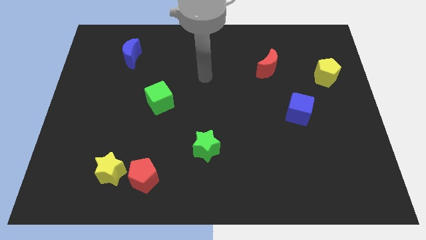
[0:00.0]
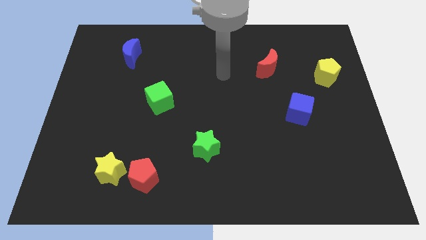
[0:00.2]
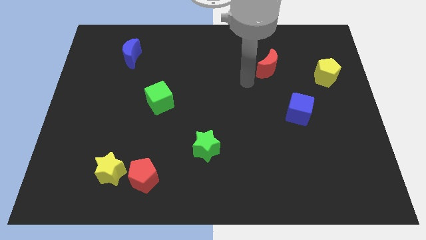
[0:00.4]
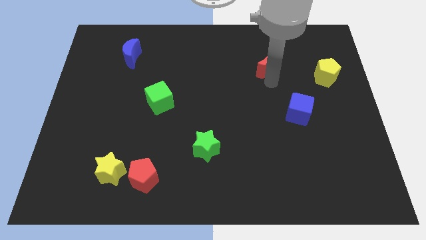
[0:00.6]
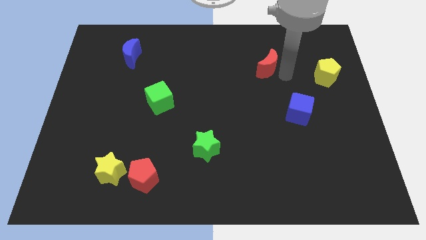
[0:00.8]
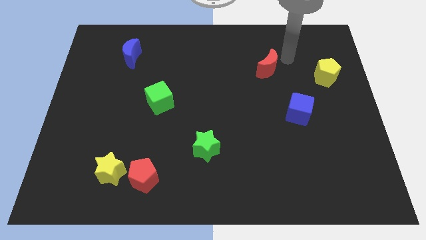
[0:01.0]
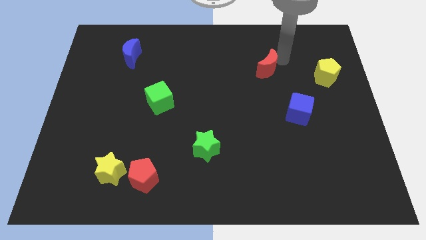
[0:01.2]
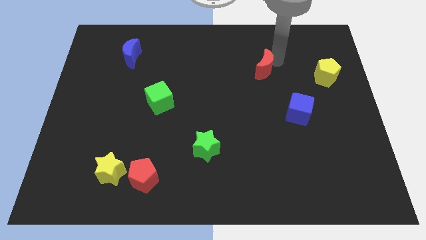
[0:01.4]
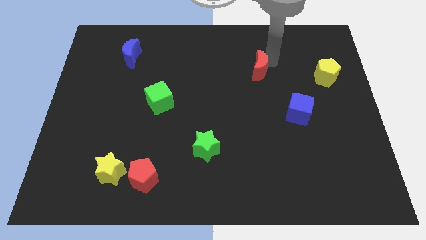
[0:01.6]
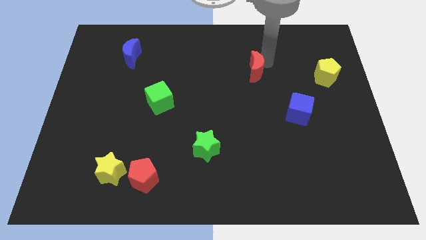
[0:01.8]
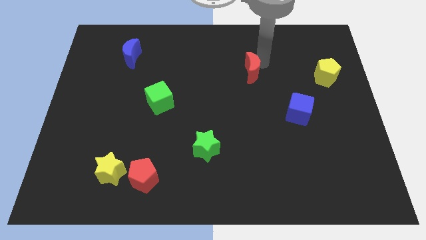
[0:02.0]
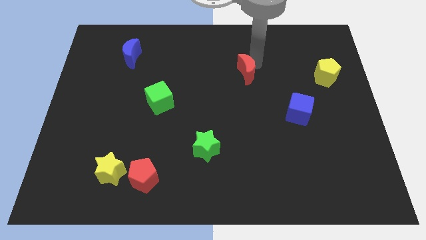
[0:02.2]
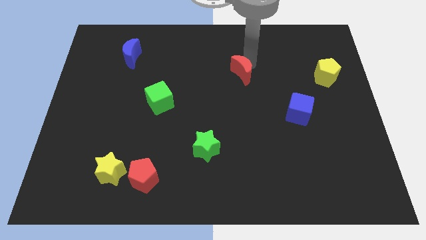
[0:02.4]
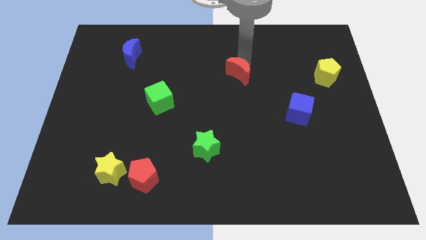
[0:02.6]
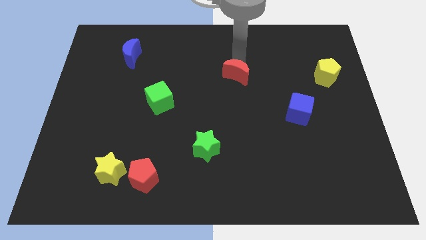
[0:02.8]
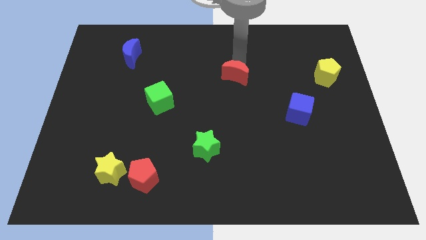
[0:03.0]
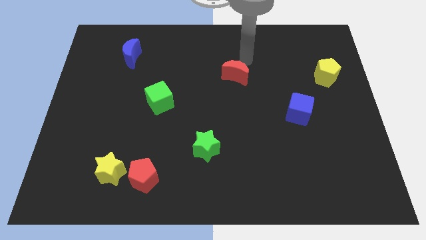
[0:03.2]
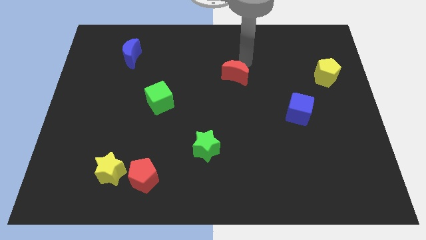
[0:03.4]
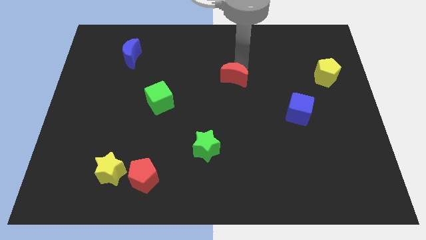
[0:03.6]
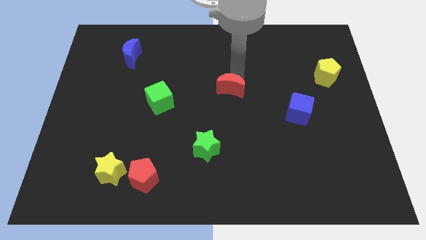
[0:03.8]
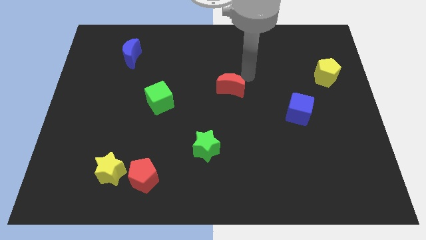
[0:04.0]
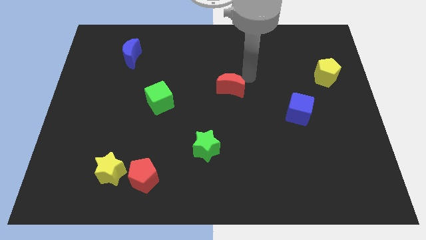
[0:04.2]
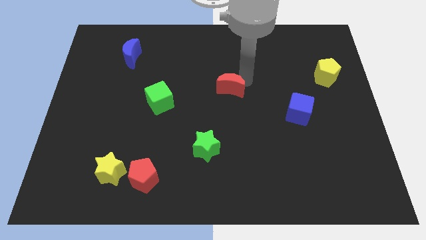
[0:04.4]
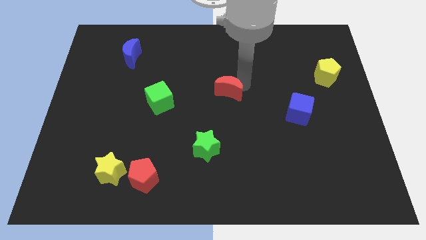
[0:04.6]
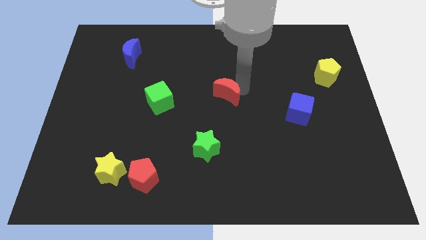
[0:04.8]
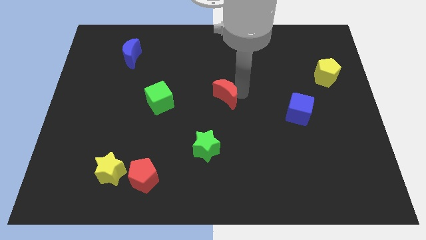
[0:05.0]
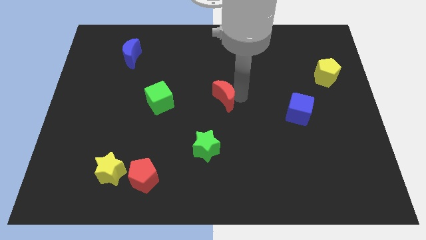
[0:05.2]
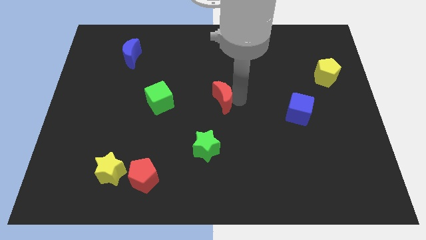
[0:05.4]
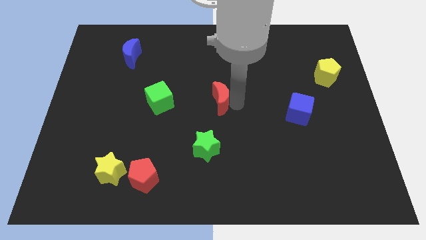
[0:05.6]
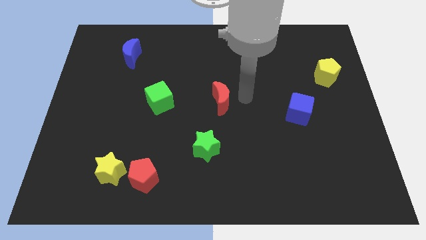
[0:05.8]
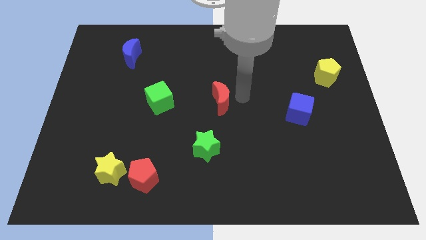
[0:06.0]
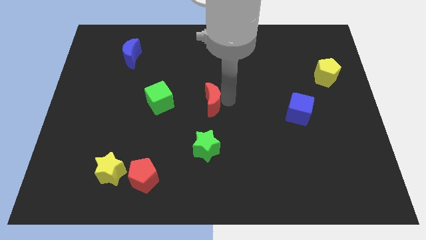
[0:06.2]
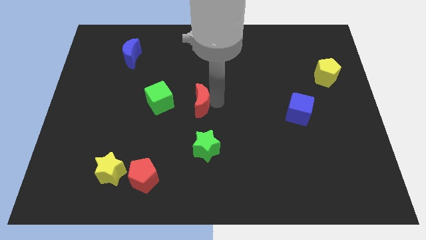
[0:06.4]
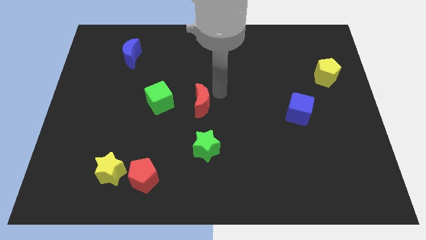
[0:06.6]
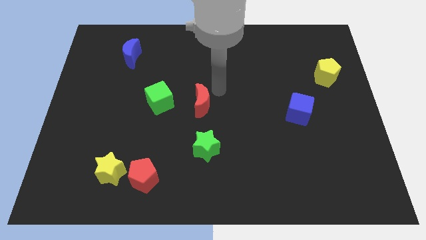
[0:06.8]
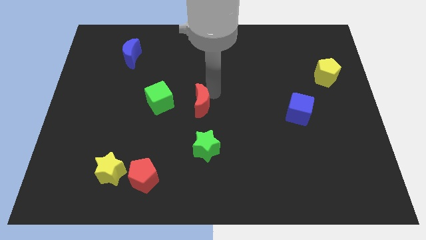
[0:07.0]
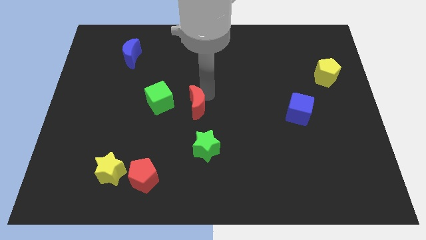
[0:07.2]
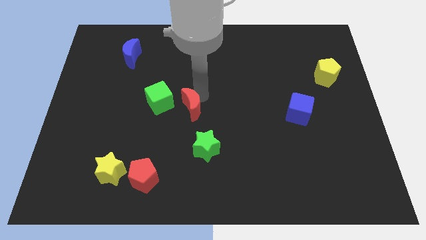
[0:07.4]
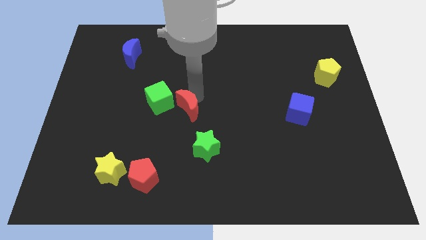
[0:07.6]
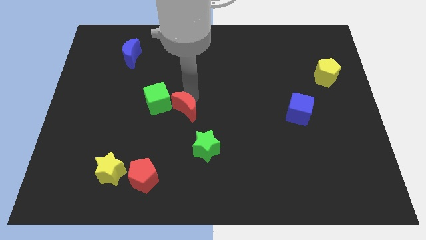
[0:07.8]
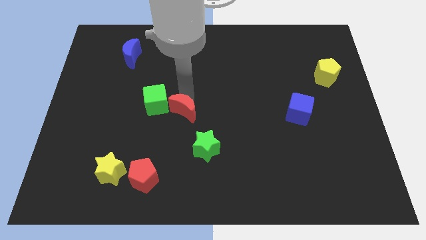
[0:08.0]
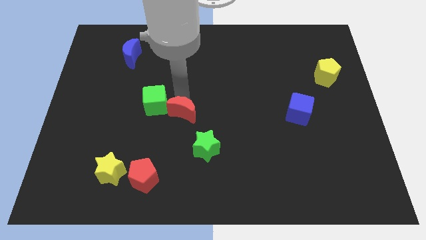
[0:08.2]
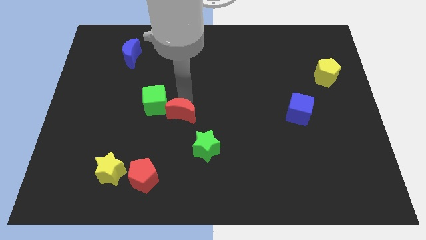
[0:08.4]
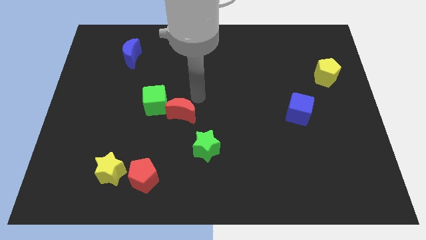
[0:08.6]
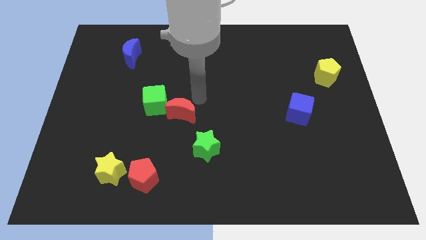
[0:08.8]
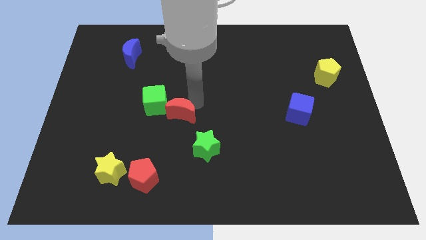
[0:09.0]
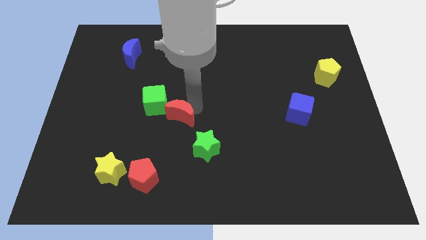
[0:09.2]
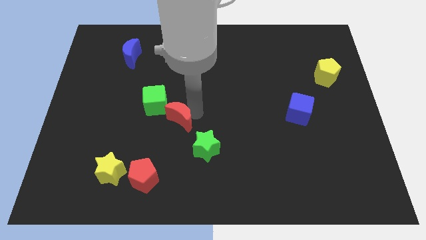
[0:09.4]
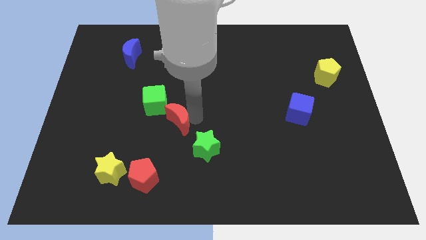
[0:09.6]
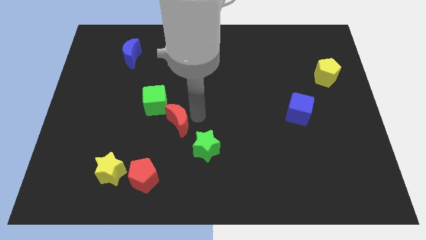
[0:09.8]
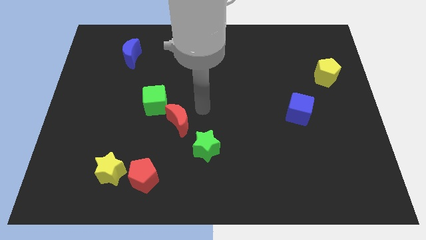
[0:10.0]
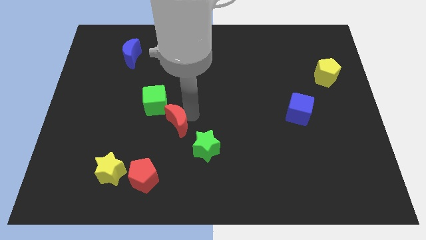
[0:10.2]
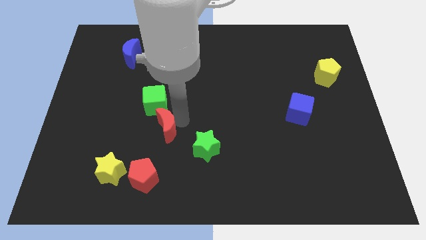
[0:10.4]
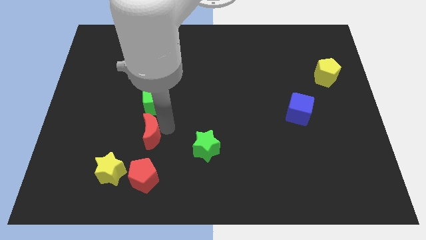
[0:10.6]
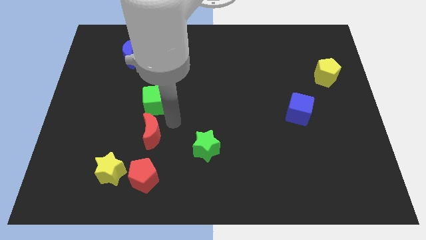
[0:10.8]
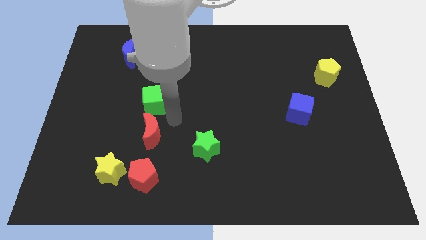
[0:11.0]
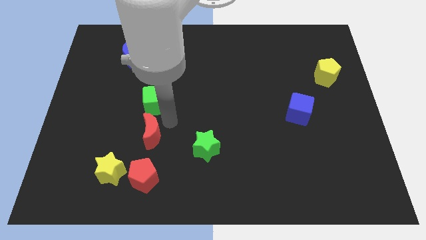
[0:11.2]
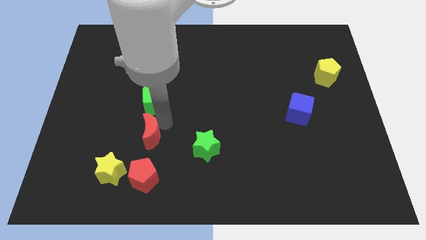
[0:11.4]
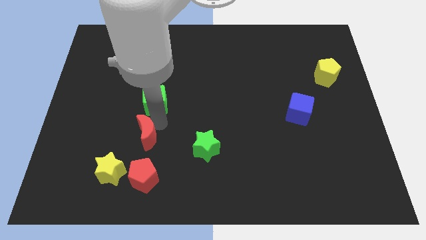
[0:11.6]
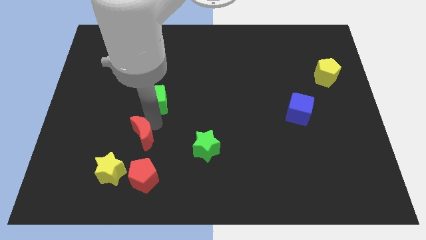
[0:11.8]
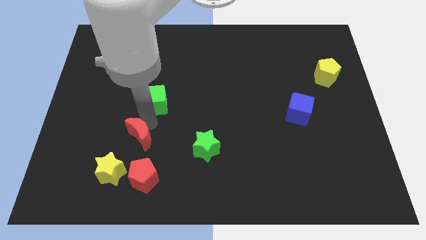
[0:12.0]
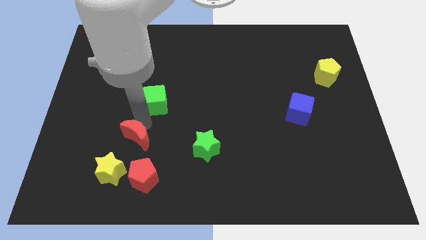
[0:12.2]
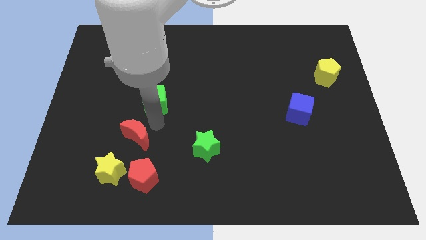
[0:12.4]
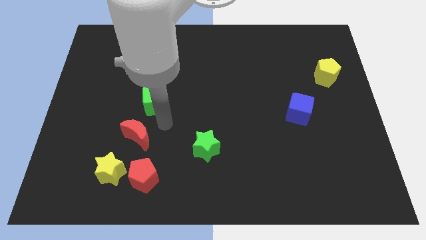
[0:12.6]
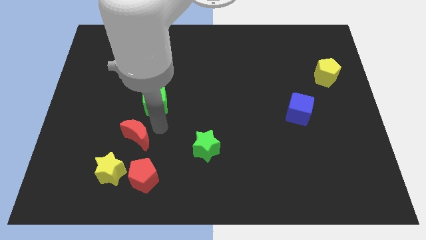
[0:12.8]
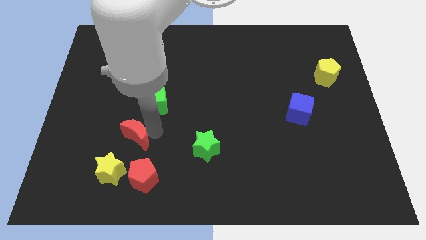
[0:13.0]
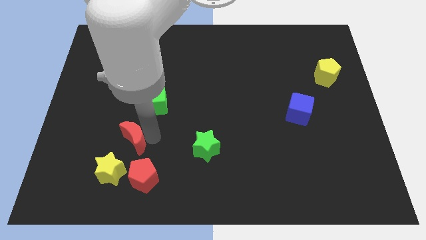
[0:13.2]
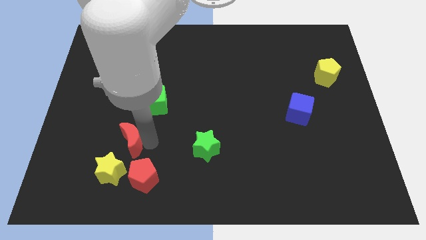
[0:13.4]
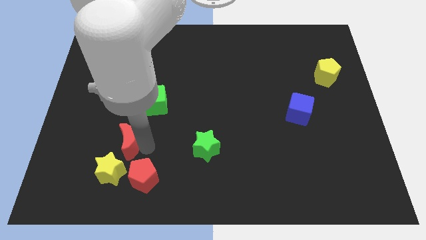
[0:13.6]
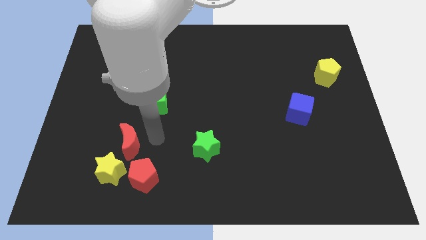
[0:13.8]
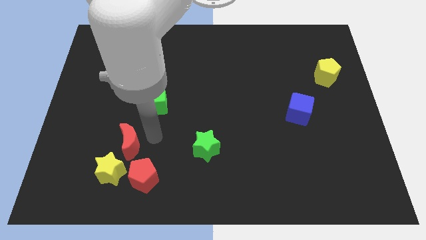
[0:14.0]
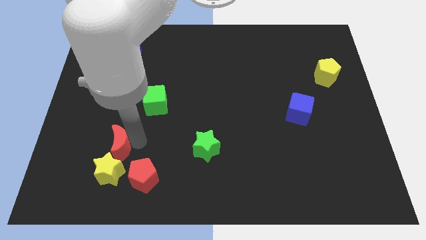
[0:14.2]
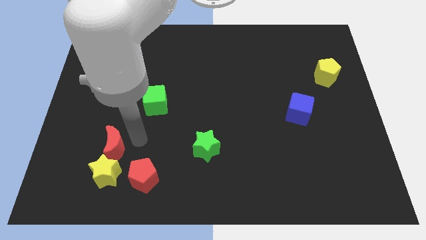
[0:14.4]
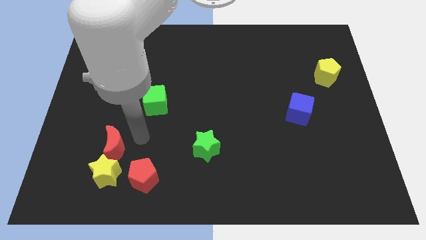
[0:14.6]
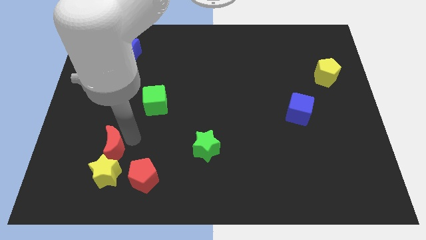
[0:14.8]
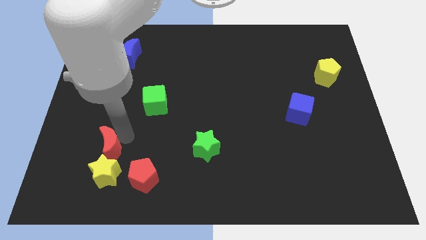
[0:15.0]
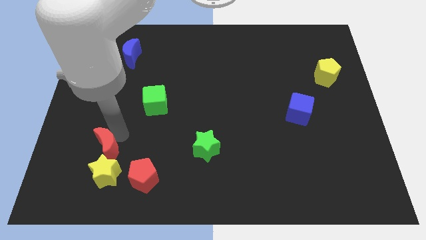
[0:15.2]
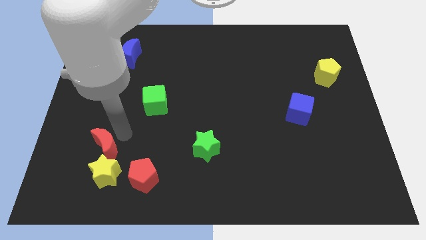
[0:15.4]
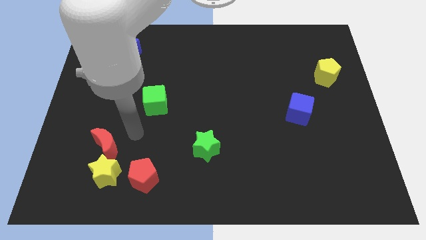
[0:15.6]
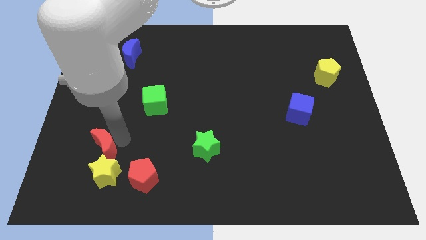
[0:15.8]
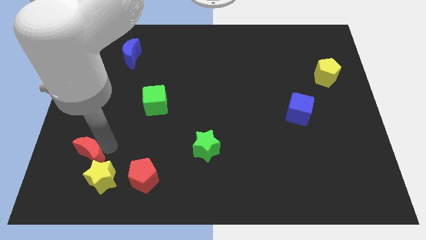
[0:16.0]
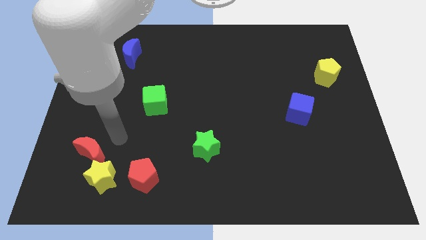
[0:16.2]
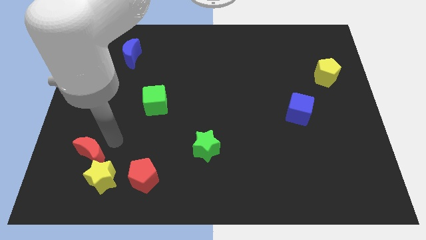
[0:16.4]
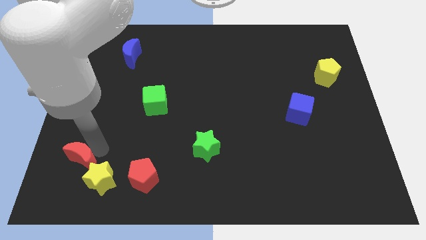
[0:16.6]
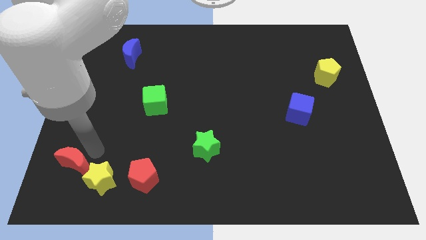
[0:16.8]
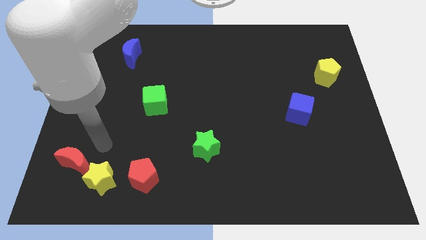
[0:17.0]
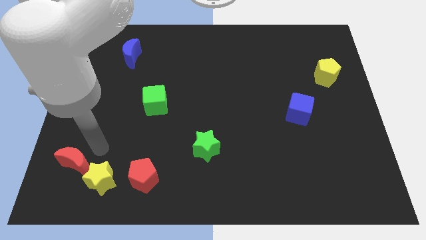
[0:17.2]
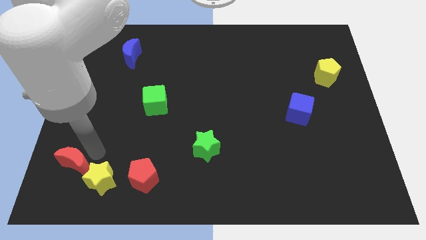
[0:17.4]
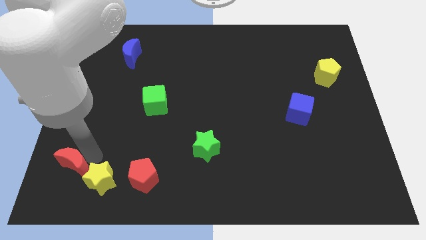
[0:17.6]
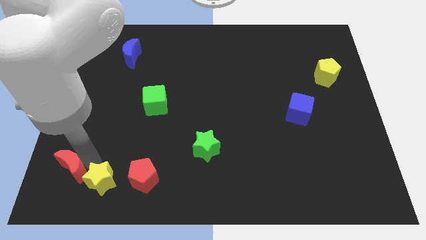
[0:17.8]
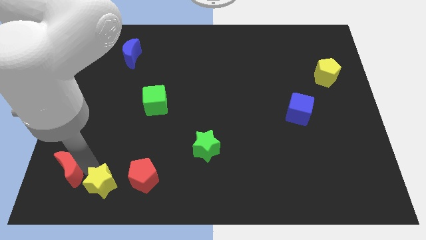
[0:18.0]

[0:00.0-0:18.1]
push the red moon to the bottom left corner
